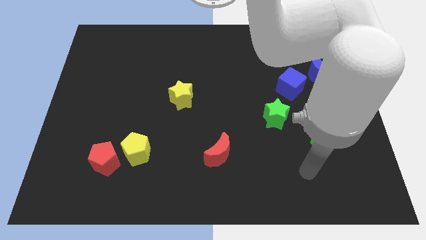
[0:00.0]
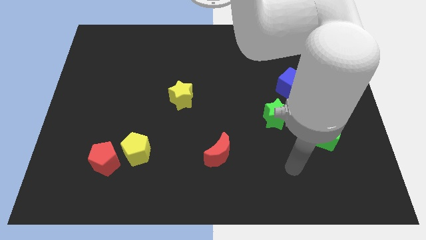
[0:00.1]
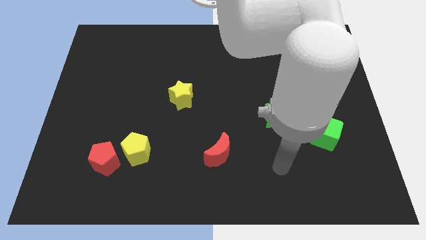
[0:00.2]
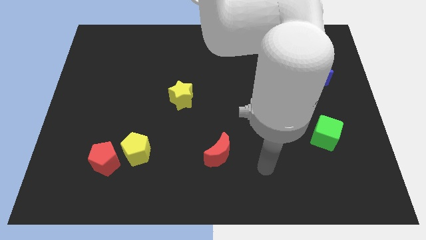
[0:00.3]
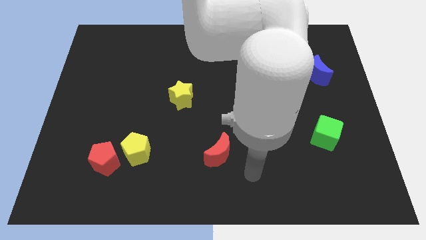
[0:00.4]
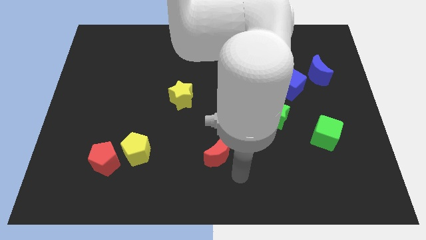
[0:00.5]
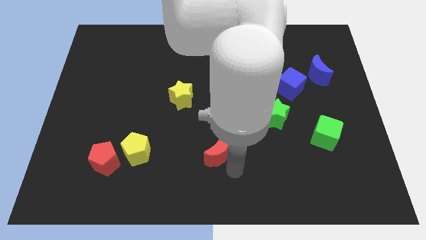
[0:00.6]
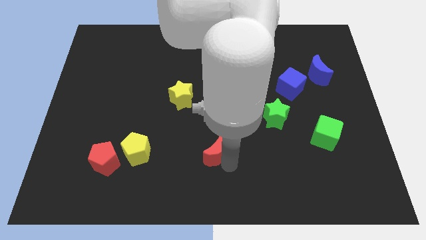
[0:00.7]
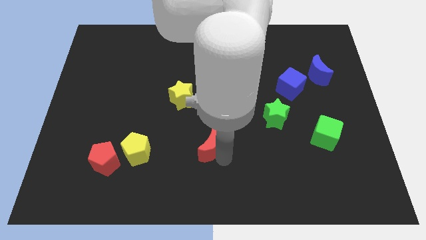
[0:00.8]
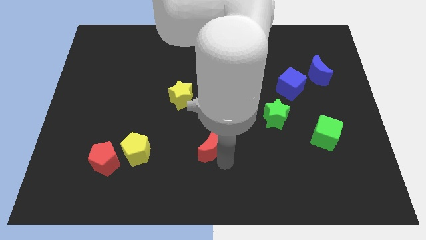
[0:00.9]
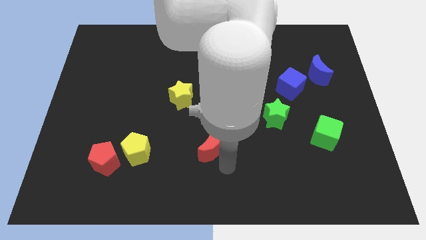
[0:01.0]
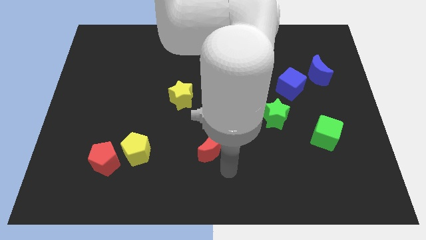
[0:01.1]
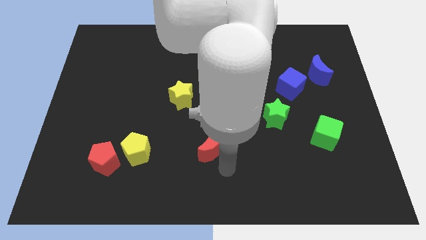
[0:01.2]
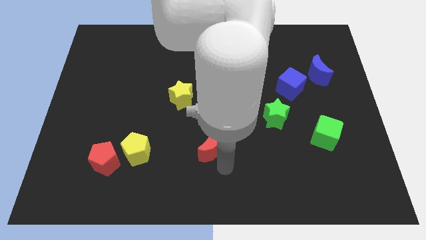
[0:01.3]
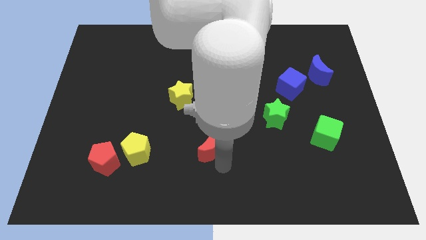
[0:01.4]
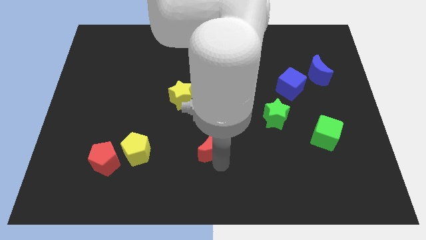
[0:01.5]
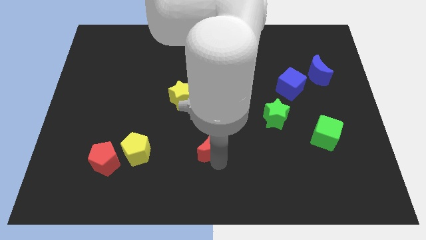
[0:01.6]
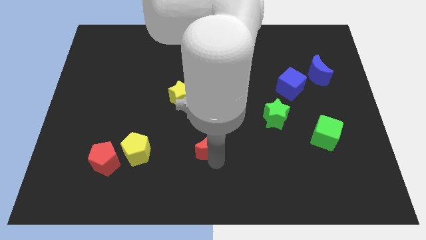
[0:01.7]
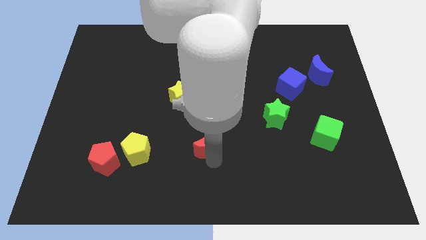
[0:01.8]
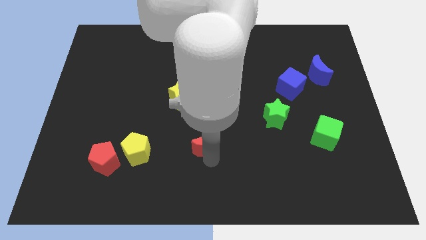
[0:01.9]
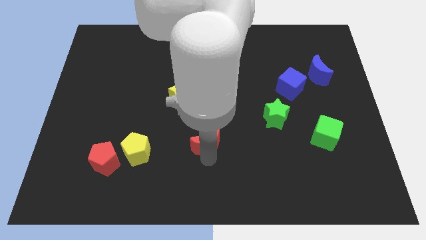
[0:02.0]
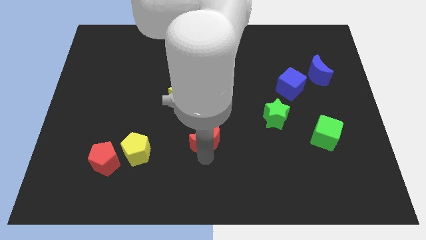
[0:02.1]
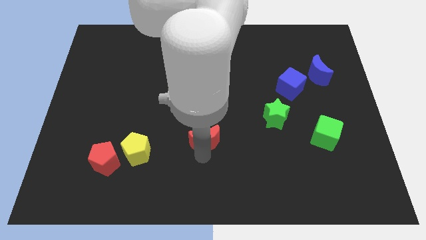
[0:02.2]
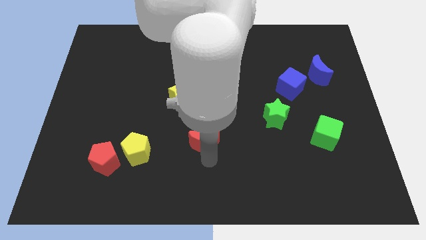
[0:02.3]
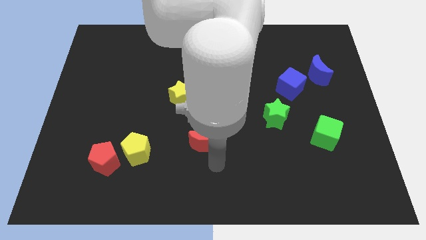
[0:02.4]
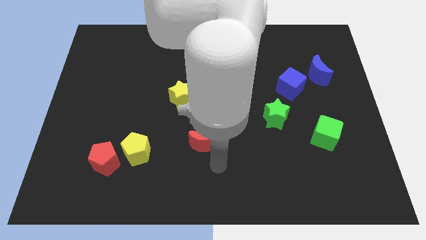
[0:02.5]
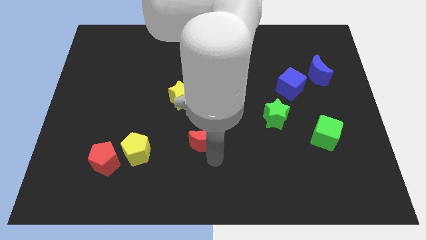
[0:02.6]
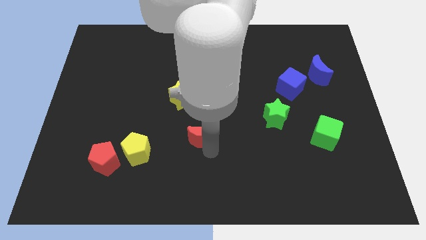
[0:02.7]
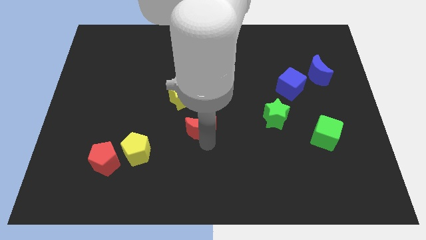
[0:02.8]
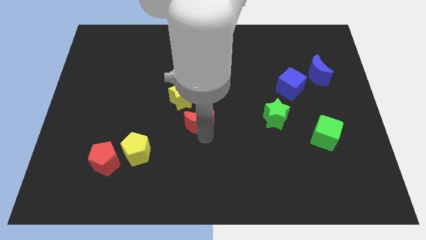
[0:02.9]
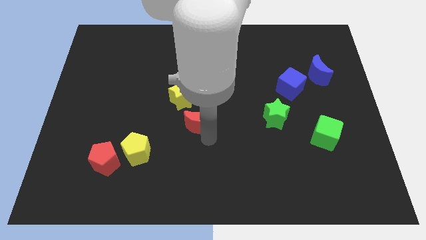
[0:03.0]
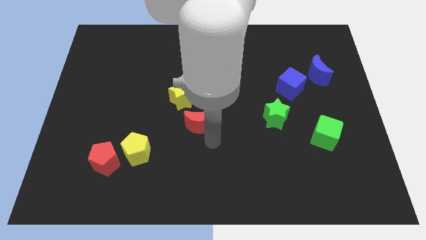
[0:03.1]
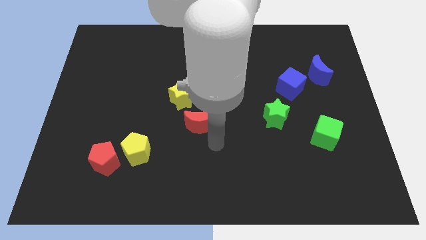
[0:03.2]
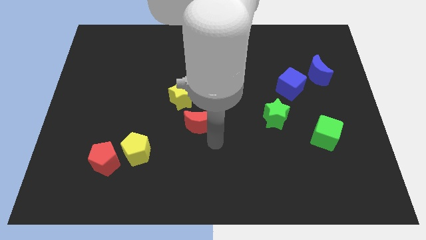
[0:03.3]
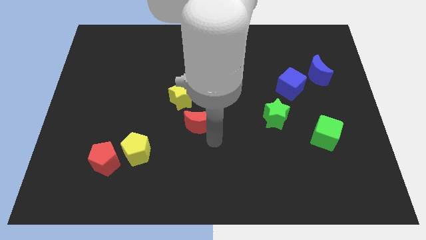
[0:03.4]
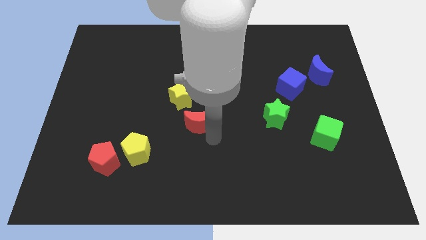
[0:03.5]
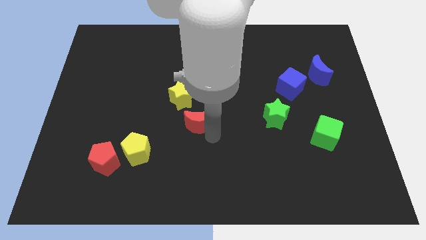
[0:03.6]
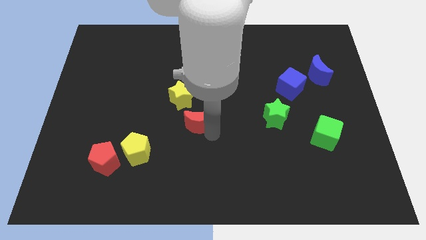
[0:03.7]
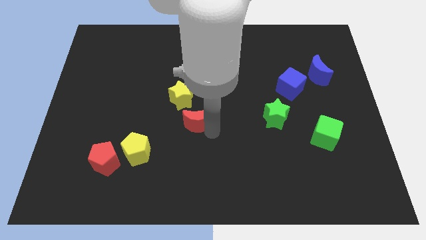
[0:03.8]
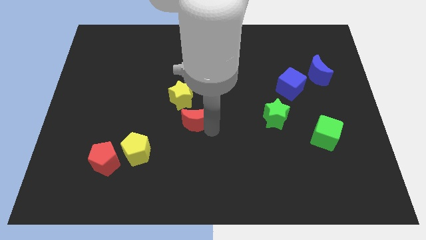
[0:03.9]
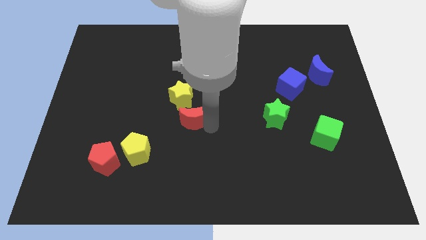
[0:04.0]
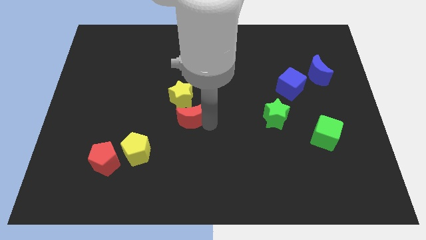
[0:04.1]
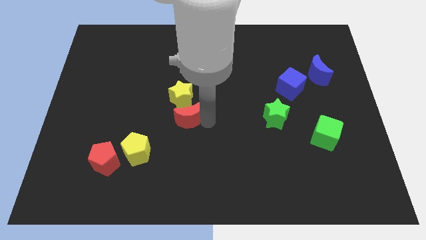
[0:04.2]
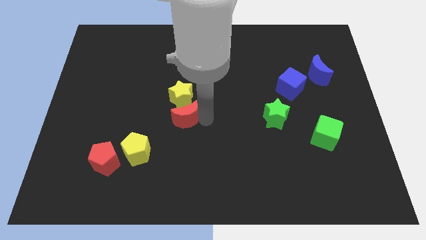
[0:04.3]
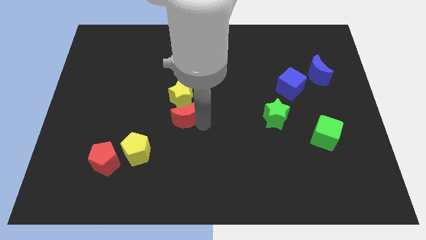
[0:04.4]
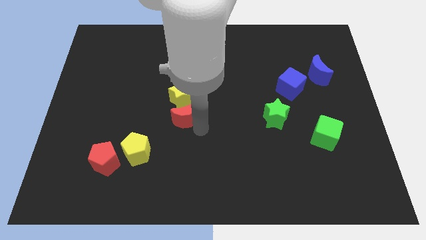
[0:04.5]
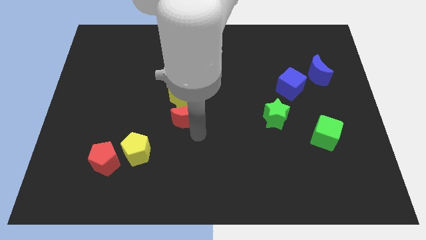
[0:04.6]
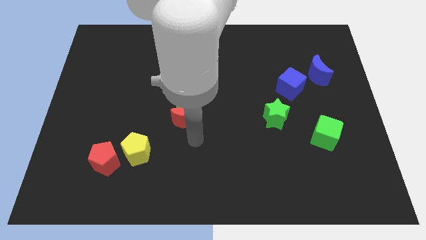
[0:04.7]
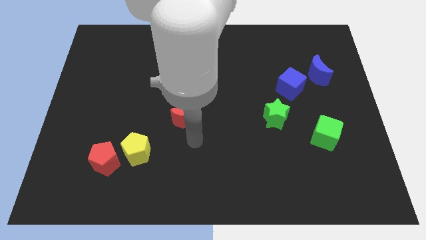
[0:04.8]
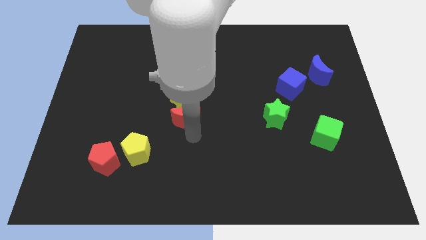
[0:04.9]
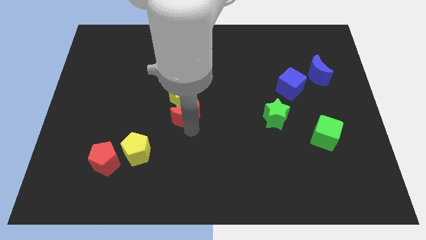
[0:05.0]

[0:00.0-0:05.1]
move the red moon close to the yellow star

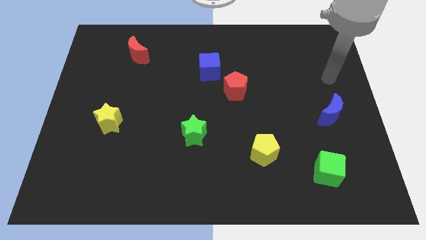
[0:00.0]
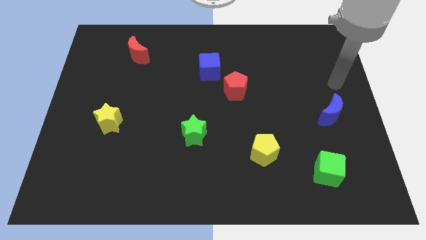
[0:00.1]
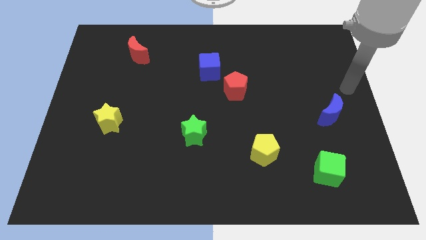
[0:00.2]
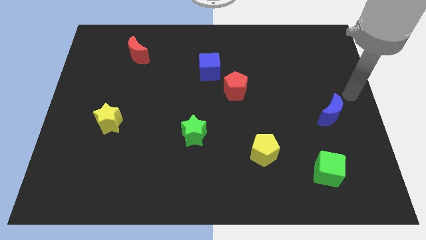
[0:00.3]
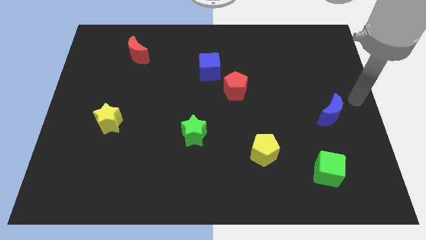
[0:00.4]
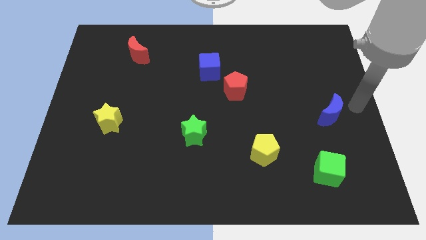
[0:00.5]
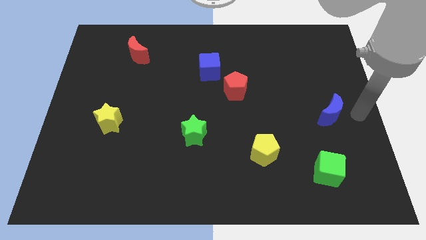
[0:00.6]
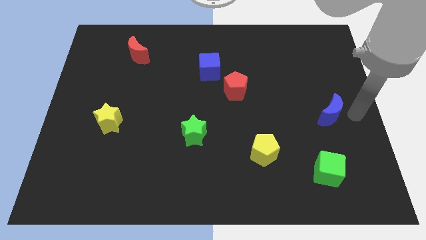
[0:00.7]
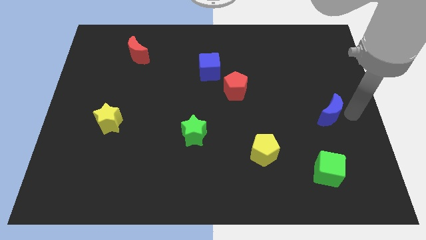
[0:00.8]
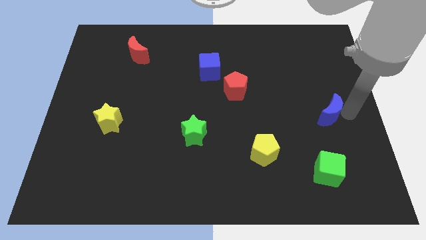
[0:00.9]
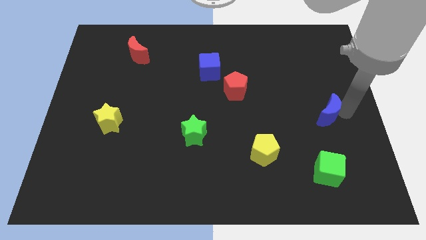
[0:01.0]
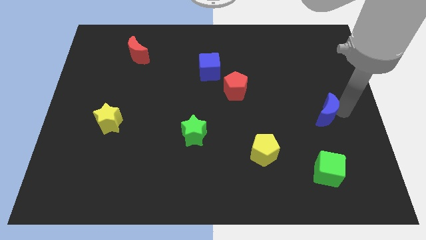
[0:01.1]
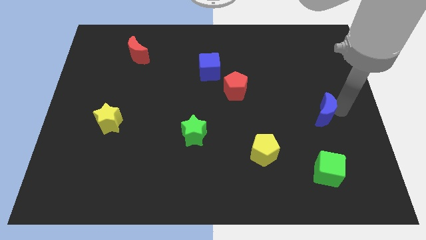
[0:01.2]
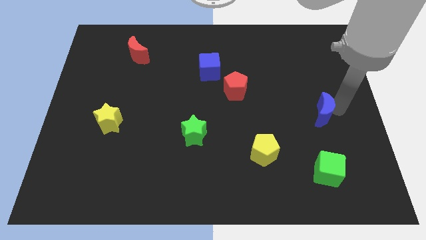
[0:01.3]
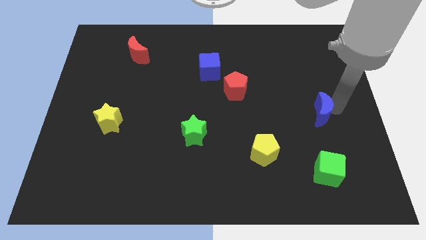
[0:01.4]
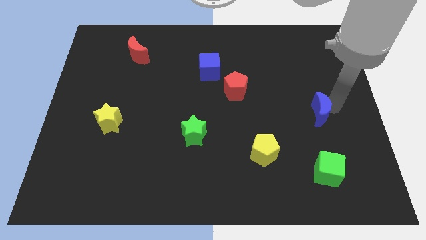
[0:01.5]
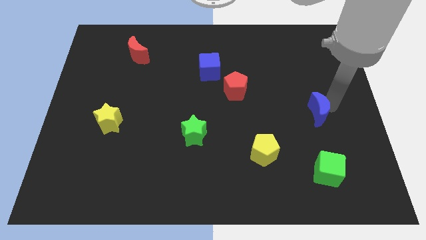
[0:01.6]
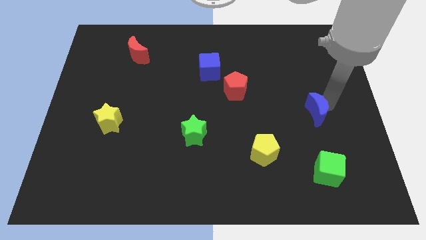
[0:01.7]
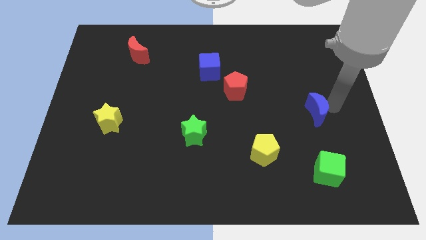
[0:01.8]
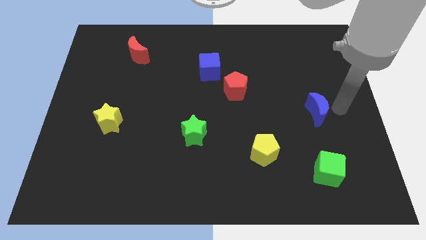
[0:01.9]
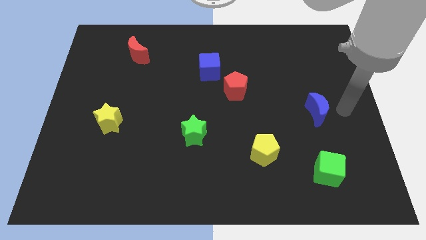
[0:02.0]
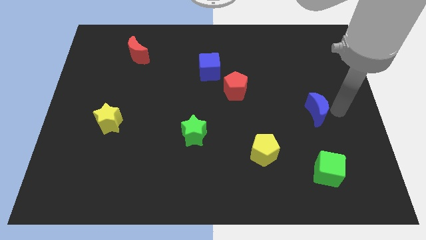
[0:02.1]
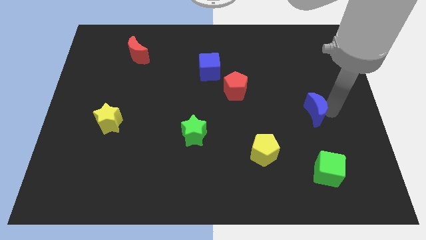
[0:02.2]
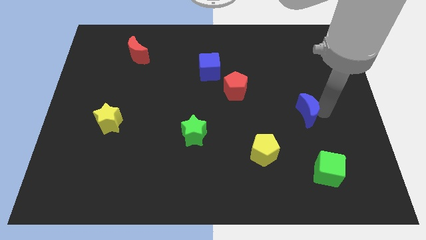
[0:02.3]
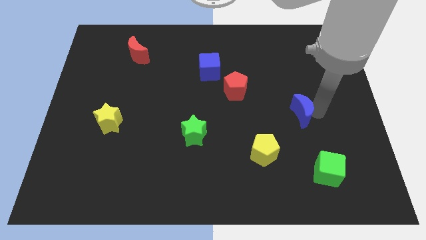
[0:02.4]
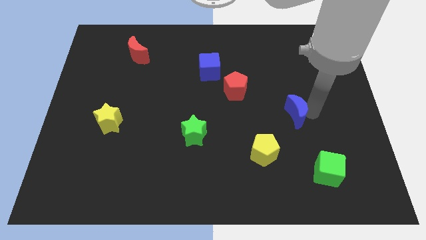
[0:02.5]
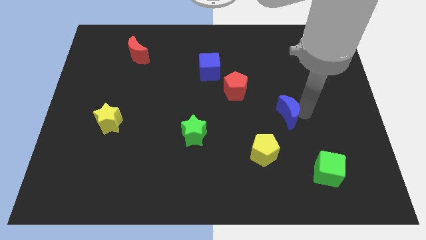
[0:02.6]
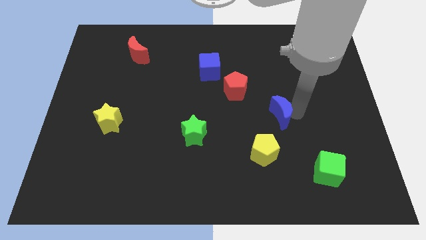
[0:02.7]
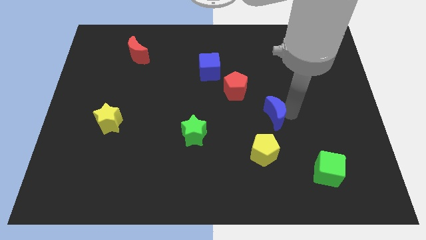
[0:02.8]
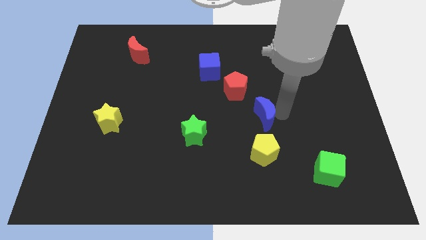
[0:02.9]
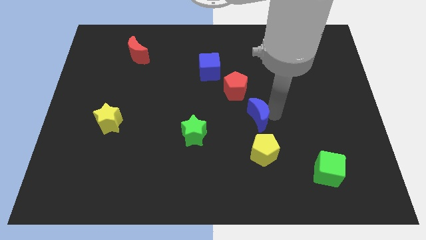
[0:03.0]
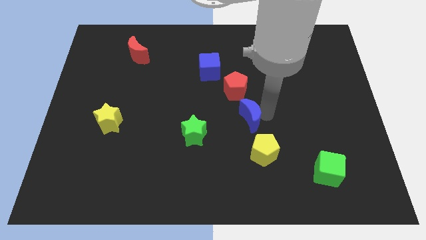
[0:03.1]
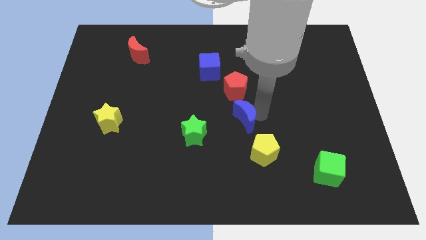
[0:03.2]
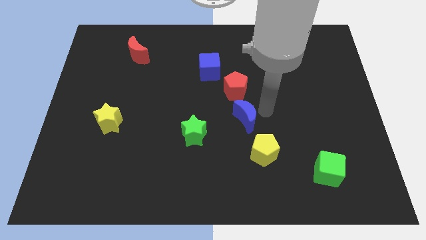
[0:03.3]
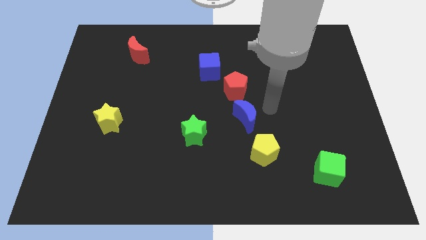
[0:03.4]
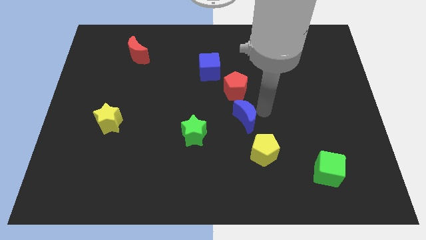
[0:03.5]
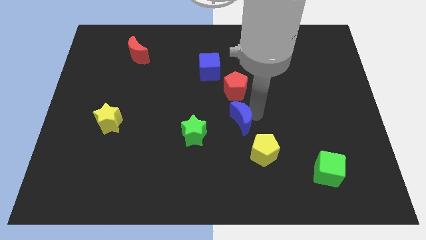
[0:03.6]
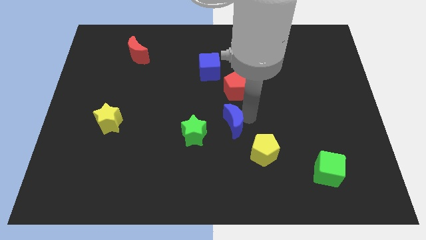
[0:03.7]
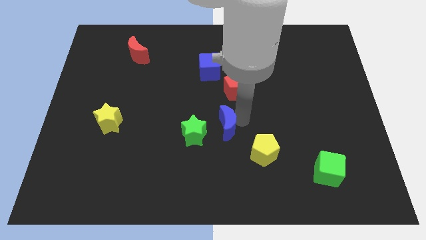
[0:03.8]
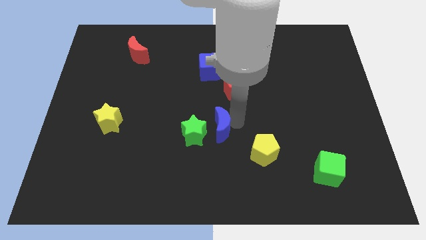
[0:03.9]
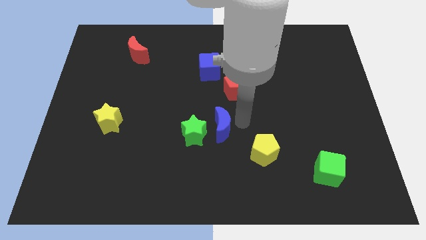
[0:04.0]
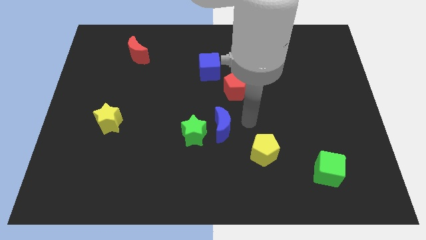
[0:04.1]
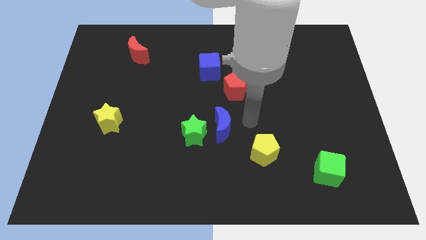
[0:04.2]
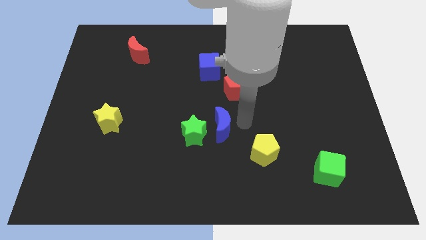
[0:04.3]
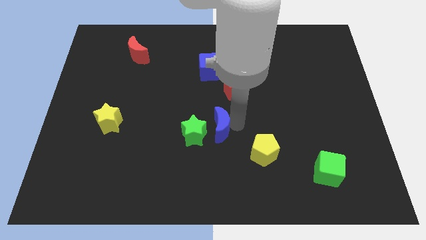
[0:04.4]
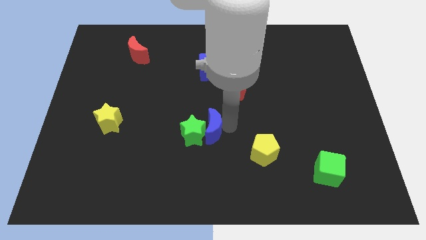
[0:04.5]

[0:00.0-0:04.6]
slide the blue moon to the green star
